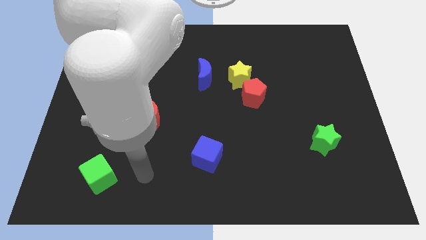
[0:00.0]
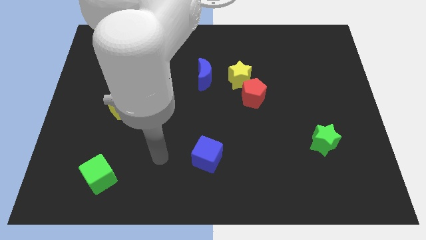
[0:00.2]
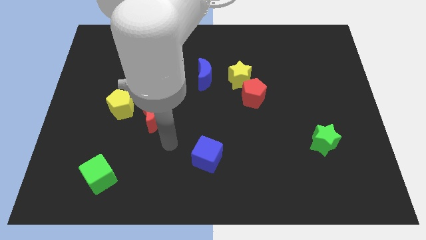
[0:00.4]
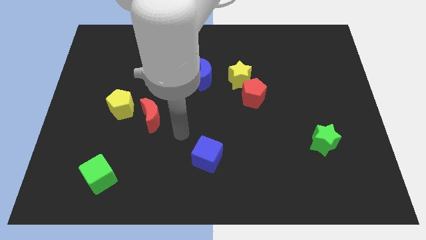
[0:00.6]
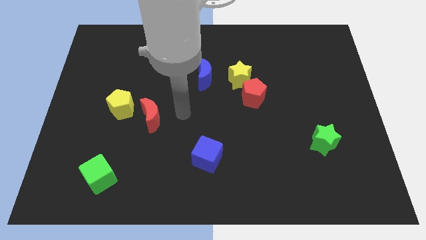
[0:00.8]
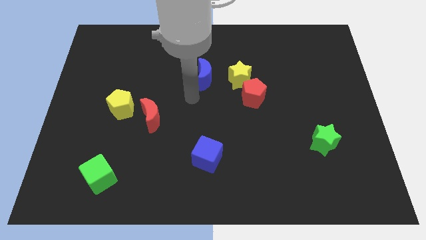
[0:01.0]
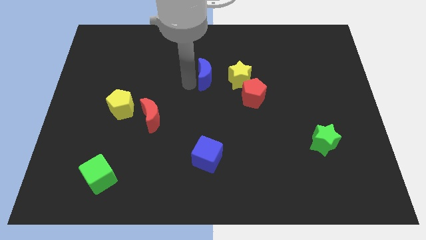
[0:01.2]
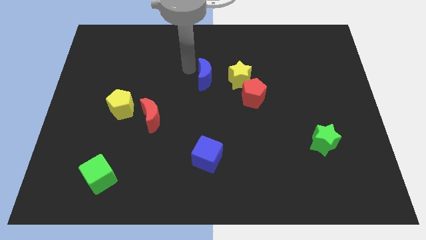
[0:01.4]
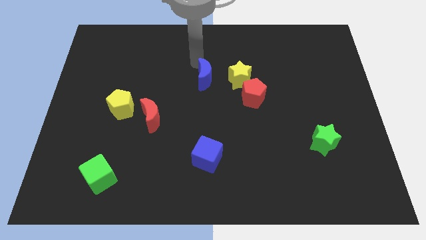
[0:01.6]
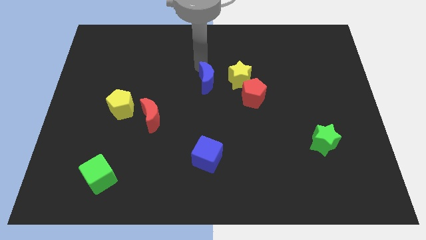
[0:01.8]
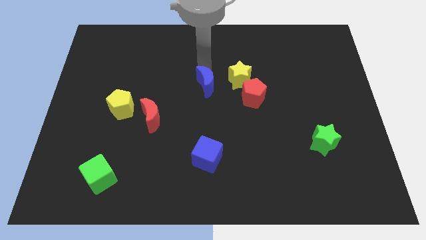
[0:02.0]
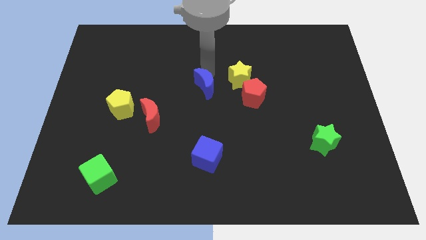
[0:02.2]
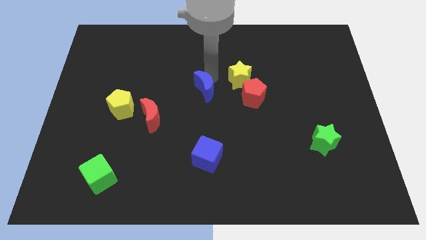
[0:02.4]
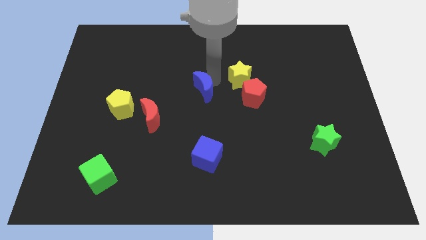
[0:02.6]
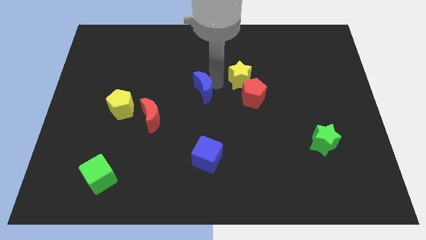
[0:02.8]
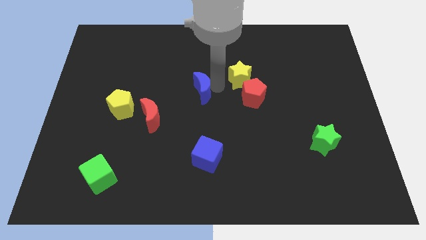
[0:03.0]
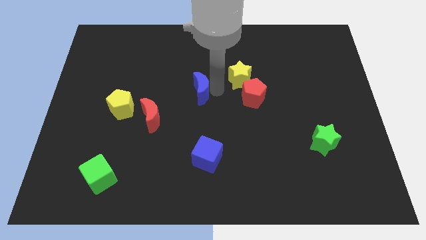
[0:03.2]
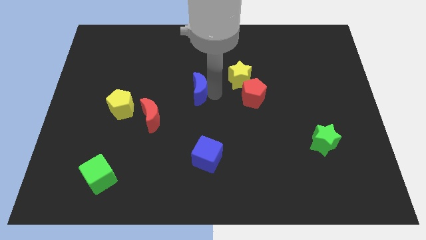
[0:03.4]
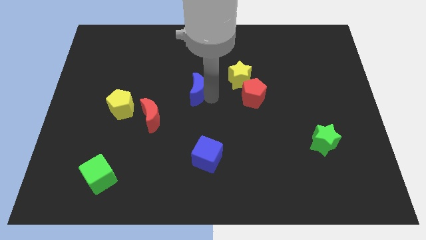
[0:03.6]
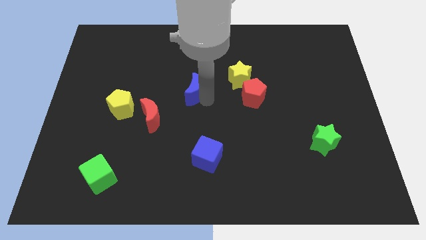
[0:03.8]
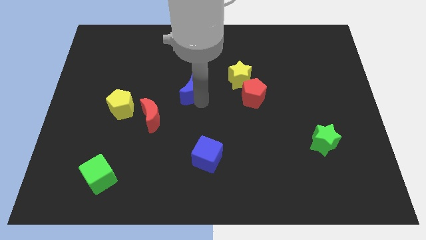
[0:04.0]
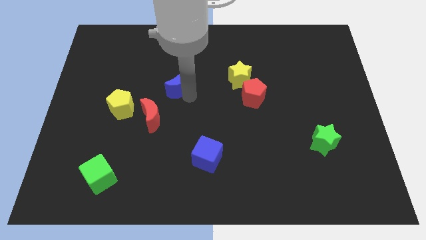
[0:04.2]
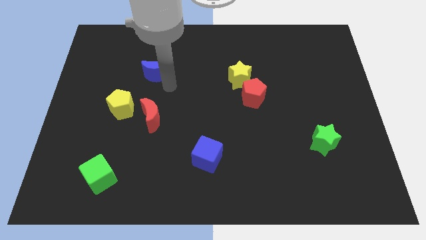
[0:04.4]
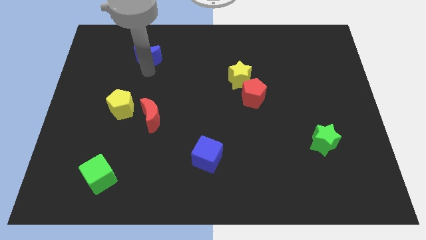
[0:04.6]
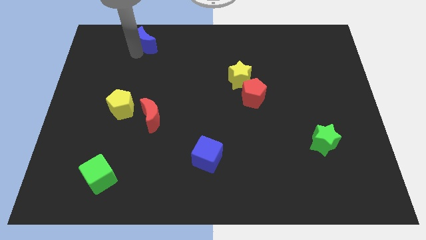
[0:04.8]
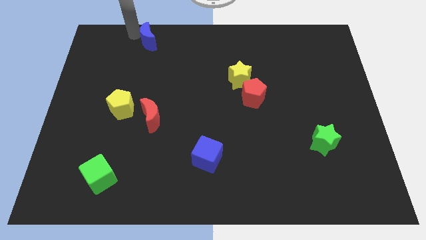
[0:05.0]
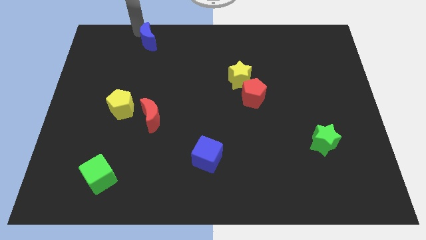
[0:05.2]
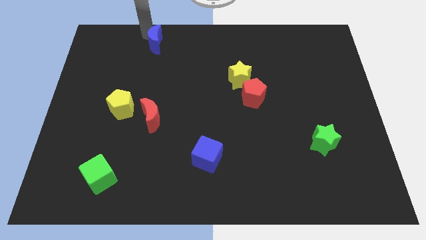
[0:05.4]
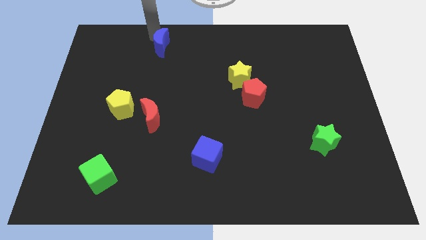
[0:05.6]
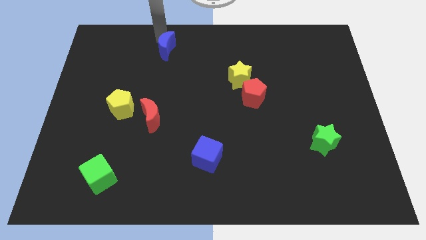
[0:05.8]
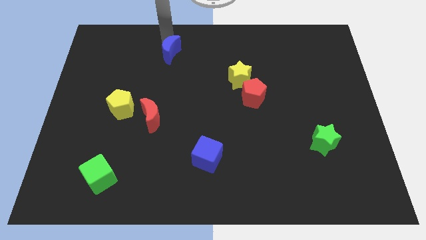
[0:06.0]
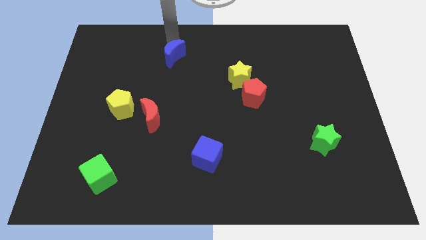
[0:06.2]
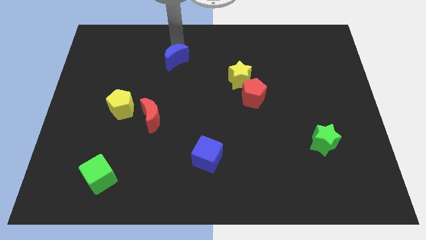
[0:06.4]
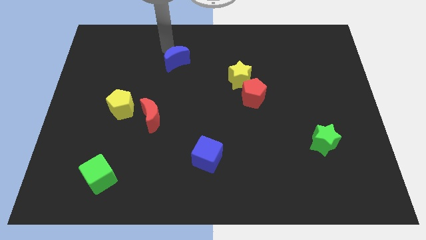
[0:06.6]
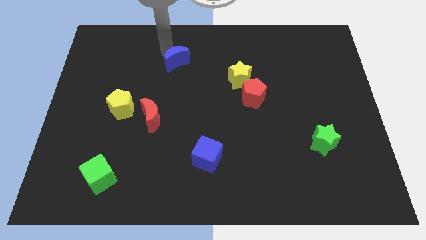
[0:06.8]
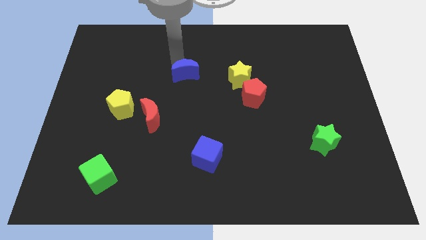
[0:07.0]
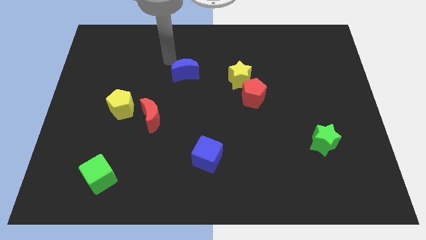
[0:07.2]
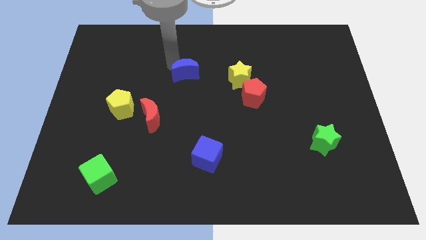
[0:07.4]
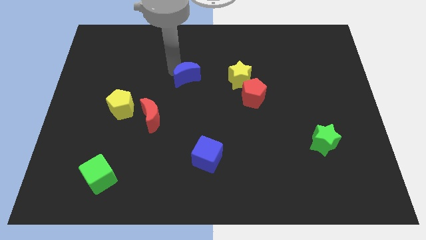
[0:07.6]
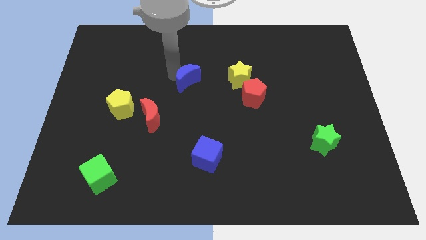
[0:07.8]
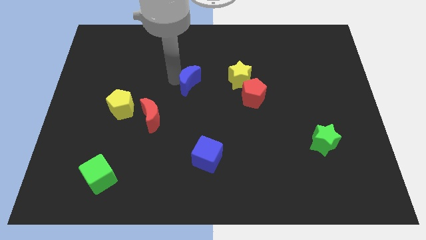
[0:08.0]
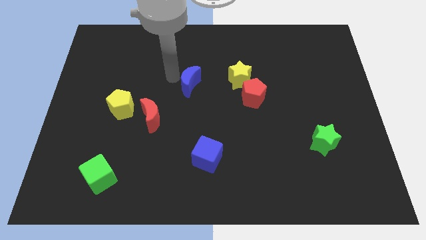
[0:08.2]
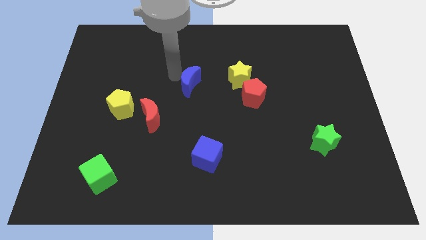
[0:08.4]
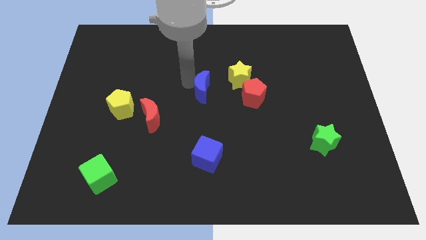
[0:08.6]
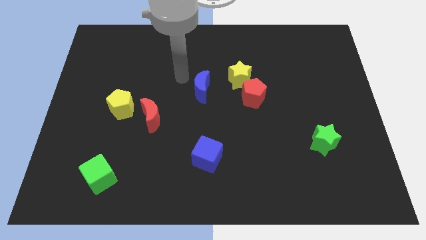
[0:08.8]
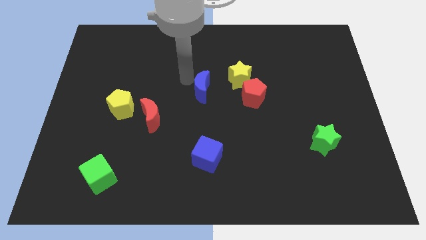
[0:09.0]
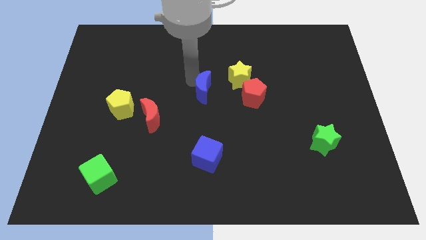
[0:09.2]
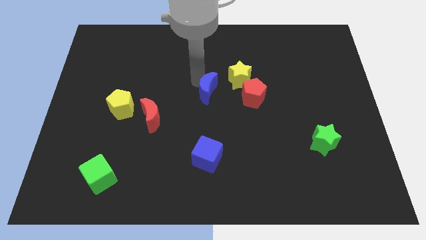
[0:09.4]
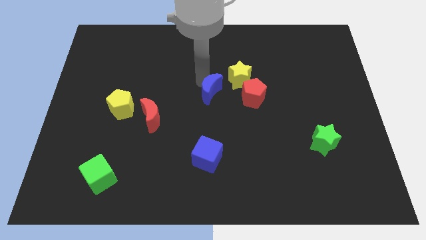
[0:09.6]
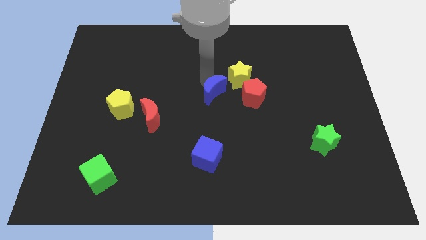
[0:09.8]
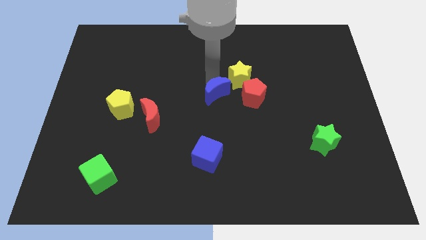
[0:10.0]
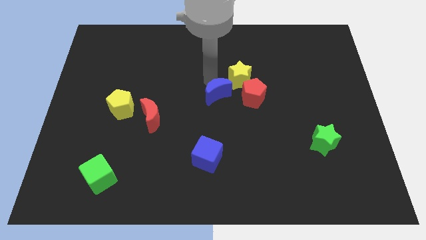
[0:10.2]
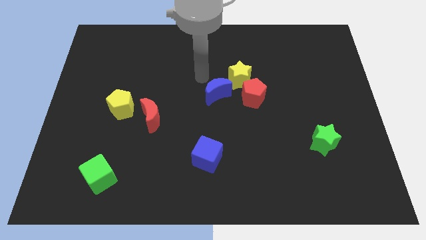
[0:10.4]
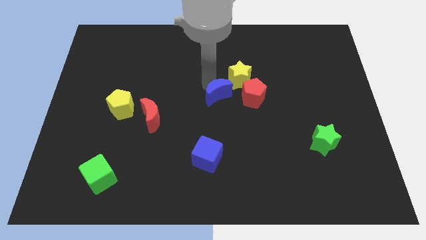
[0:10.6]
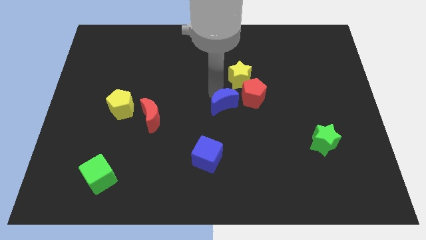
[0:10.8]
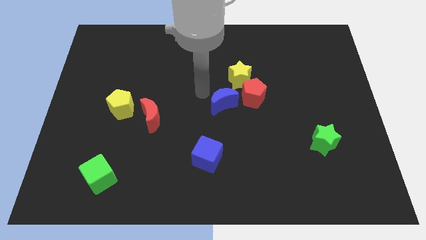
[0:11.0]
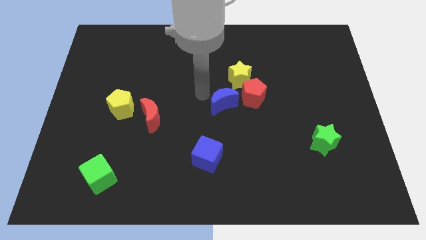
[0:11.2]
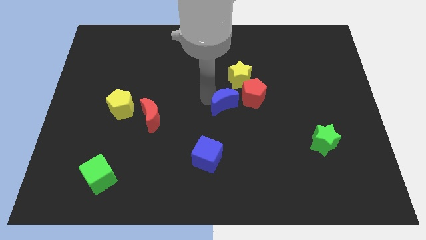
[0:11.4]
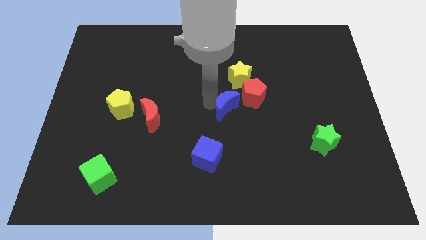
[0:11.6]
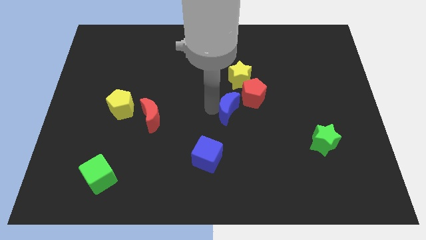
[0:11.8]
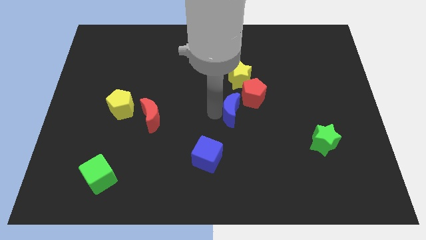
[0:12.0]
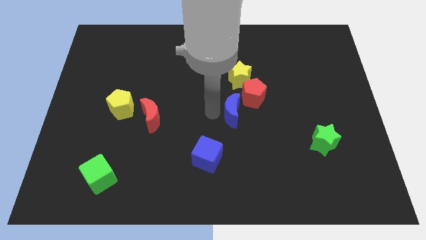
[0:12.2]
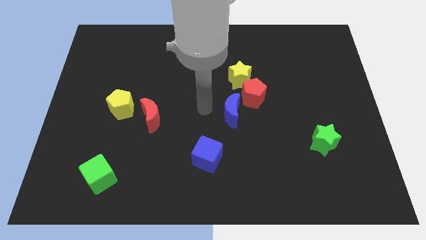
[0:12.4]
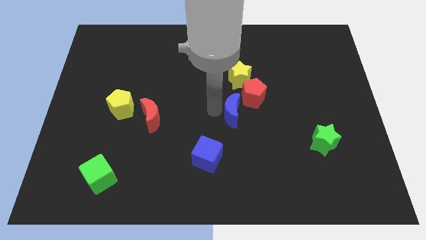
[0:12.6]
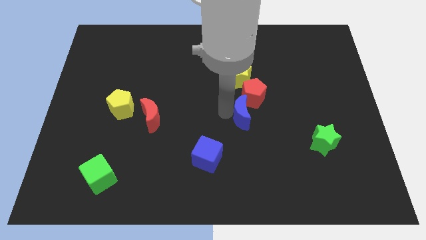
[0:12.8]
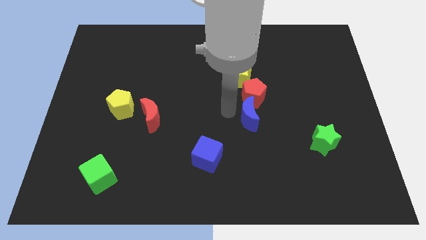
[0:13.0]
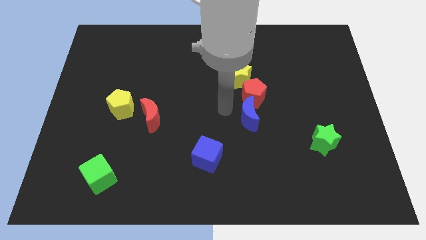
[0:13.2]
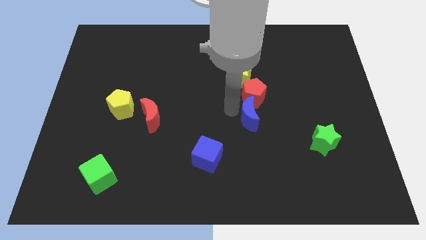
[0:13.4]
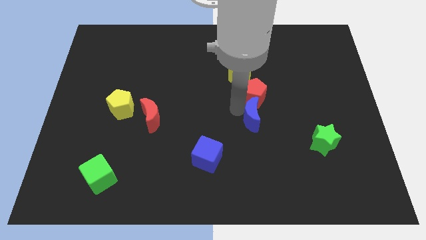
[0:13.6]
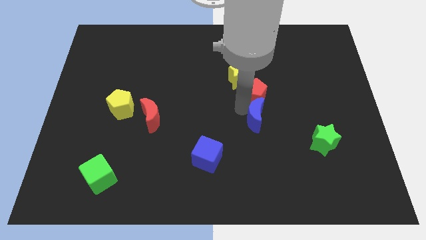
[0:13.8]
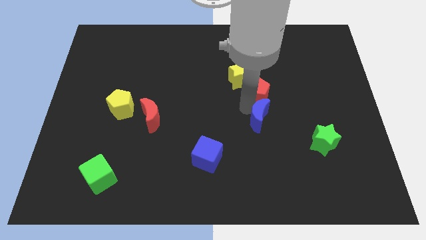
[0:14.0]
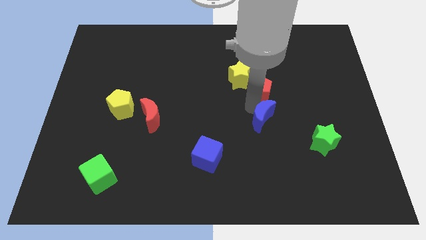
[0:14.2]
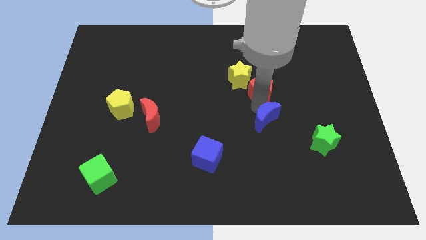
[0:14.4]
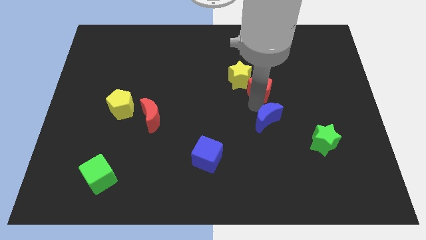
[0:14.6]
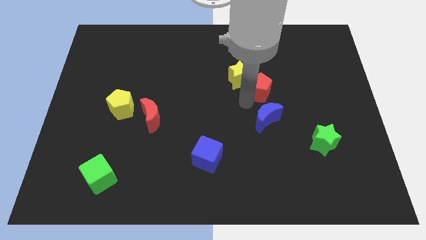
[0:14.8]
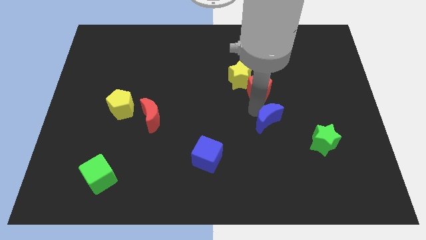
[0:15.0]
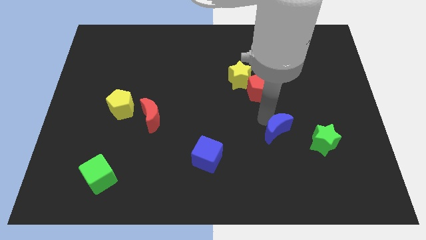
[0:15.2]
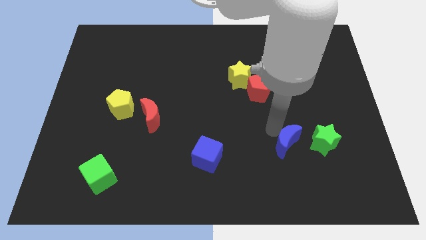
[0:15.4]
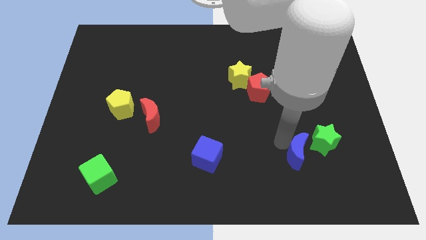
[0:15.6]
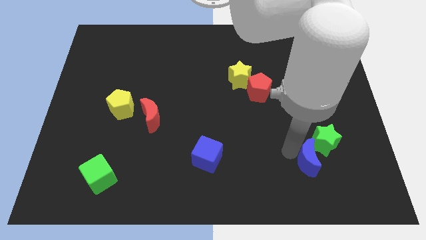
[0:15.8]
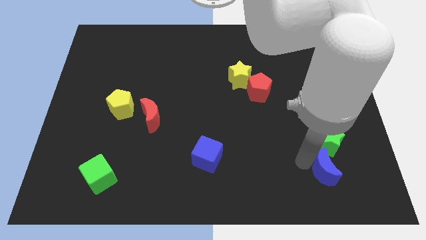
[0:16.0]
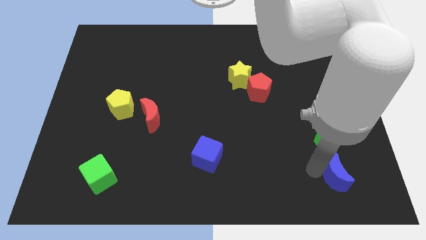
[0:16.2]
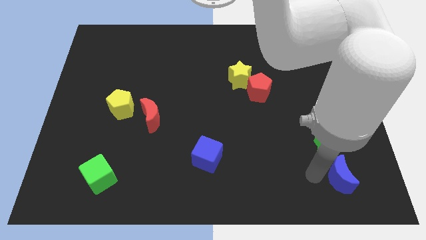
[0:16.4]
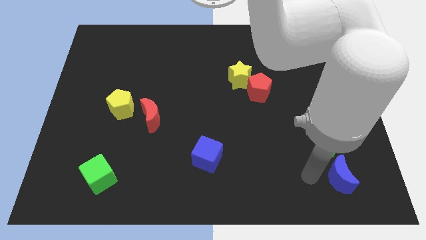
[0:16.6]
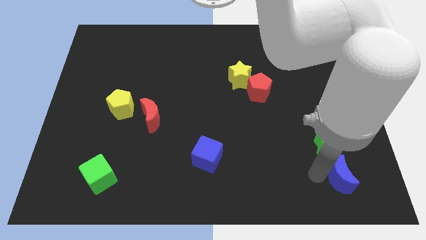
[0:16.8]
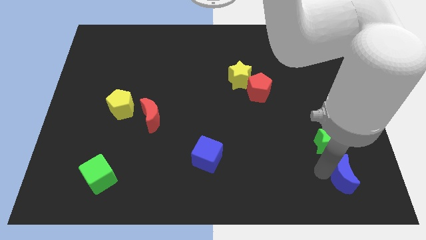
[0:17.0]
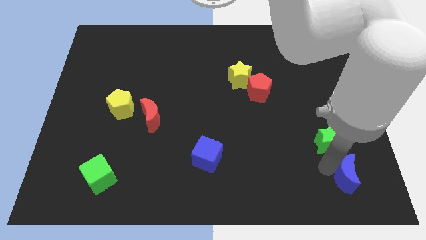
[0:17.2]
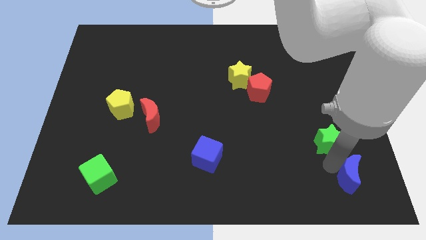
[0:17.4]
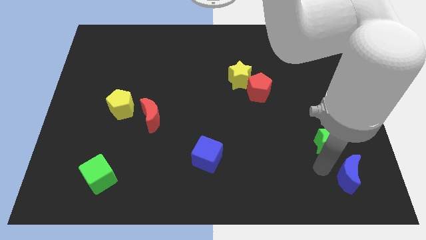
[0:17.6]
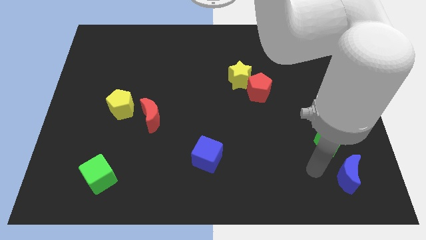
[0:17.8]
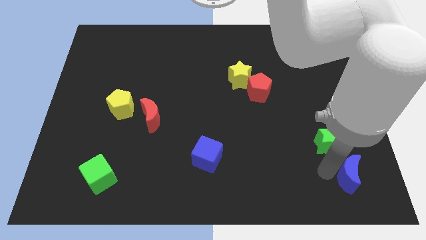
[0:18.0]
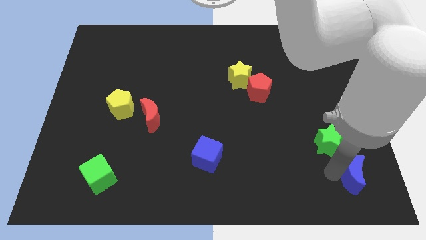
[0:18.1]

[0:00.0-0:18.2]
put the blue moon to the lower right corner
